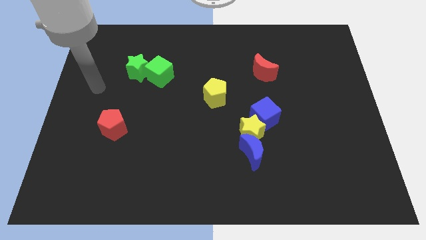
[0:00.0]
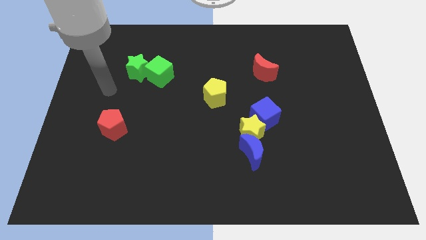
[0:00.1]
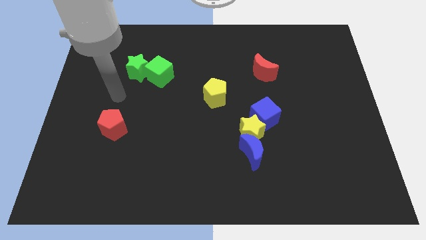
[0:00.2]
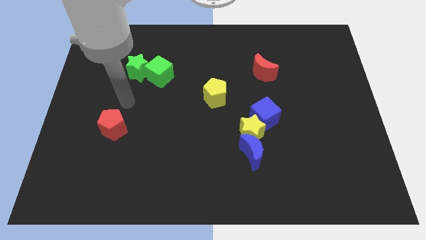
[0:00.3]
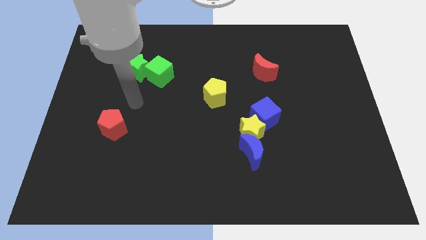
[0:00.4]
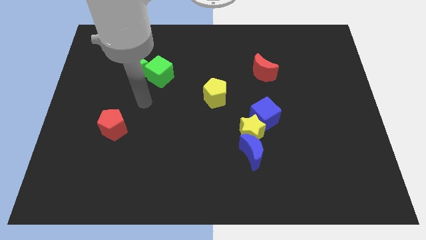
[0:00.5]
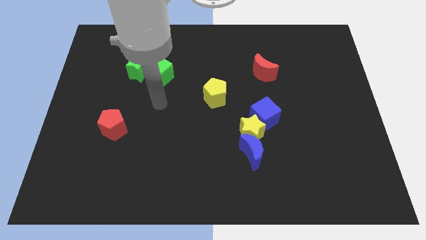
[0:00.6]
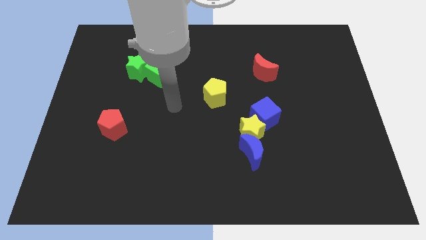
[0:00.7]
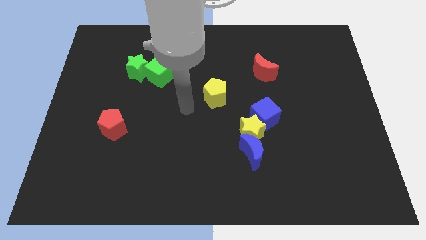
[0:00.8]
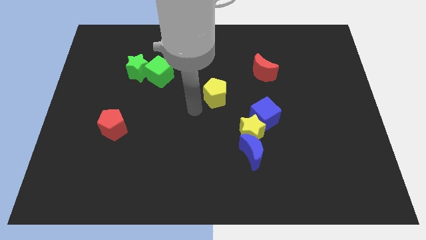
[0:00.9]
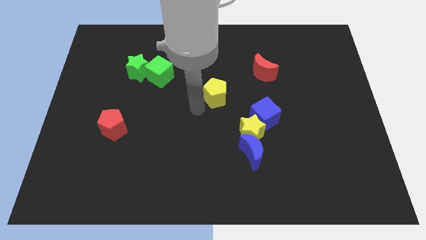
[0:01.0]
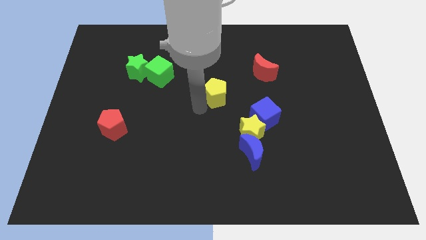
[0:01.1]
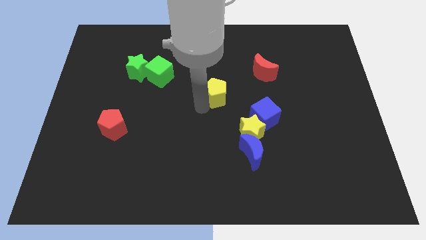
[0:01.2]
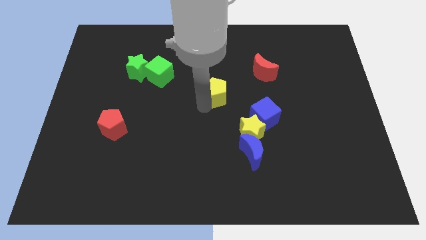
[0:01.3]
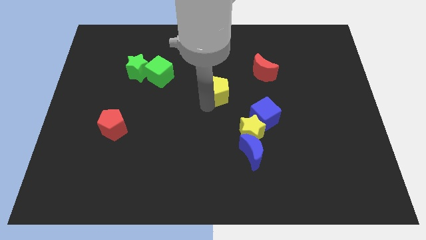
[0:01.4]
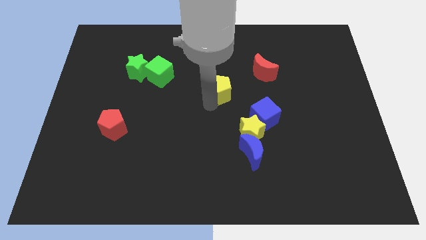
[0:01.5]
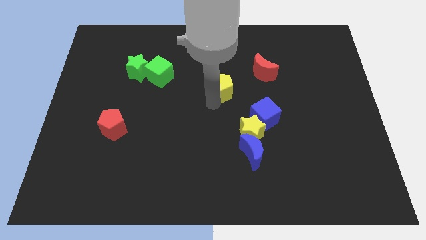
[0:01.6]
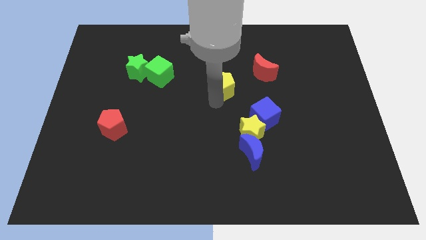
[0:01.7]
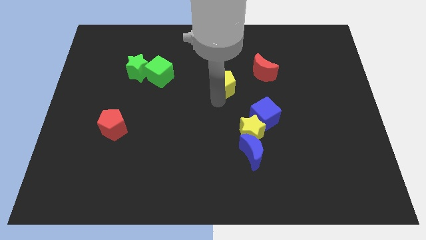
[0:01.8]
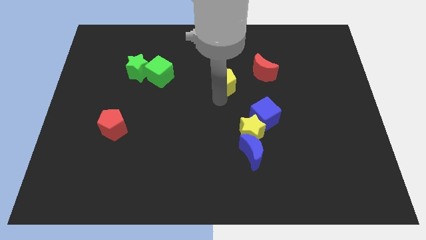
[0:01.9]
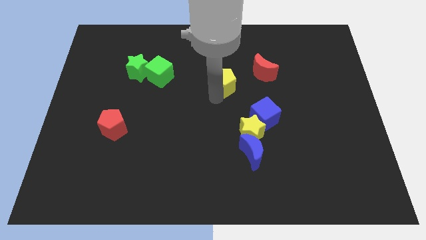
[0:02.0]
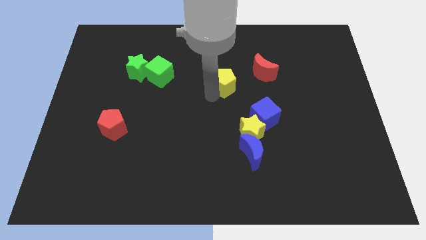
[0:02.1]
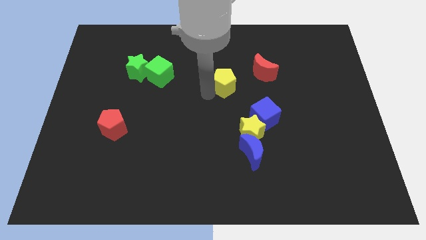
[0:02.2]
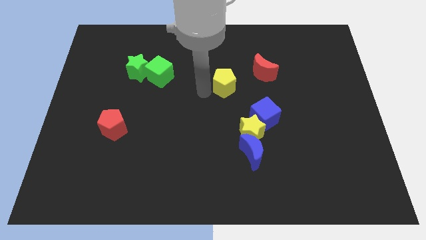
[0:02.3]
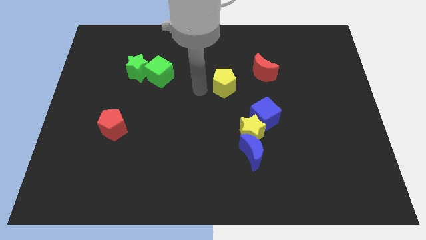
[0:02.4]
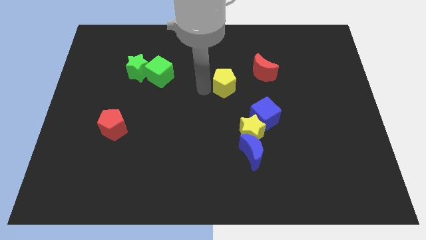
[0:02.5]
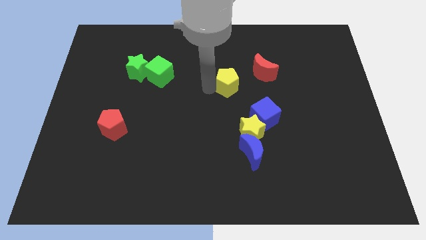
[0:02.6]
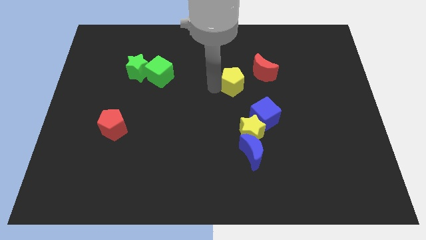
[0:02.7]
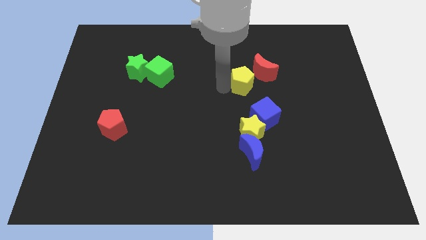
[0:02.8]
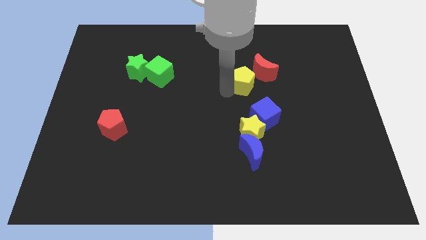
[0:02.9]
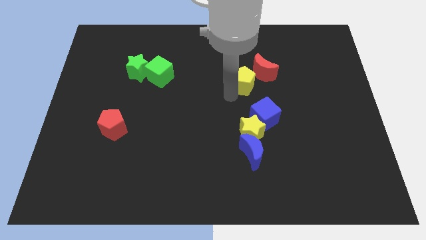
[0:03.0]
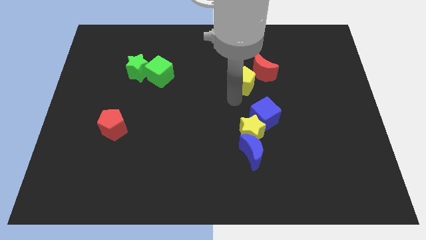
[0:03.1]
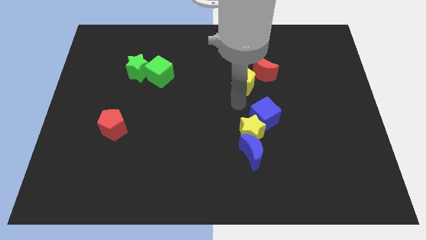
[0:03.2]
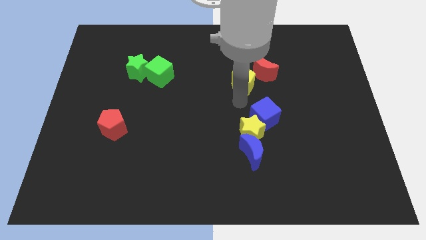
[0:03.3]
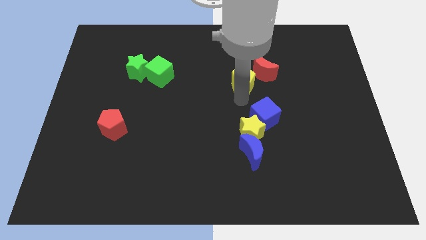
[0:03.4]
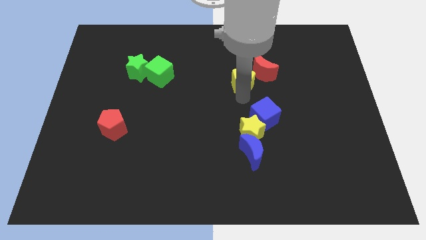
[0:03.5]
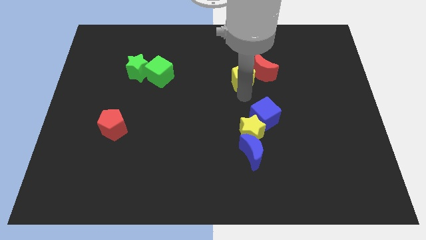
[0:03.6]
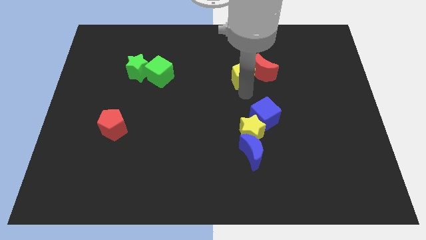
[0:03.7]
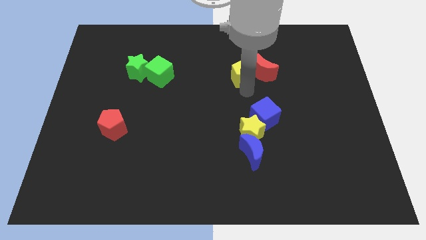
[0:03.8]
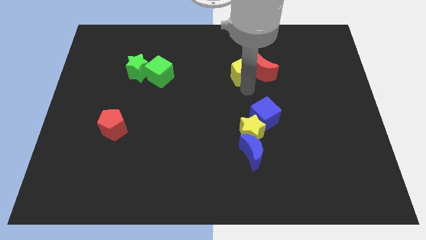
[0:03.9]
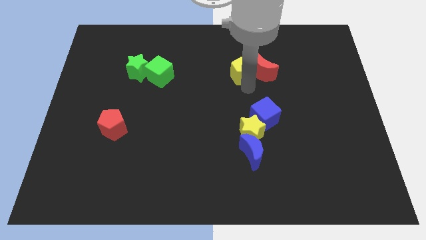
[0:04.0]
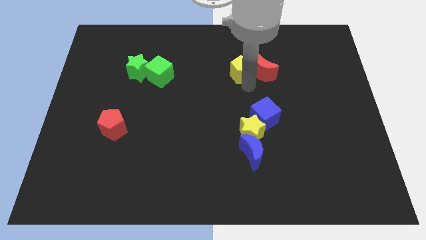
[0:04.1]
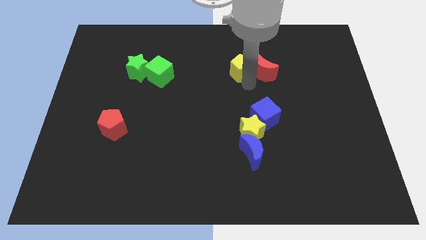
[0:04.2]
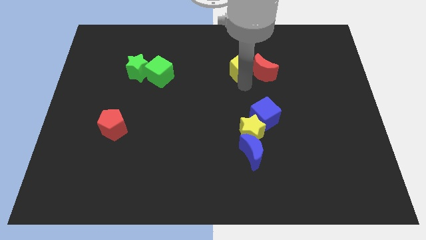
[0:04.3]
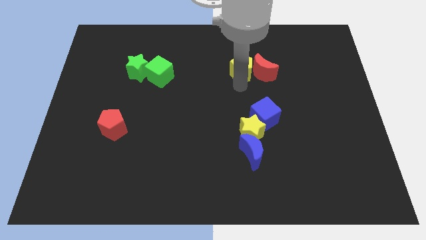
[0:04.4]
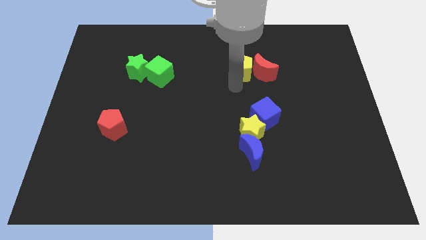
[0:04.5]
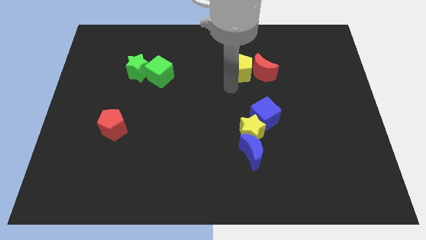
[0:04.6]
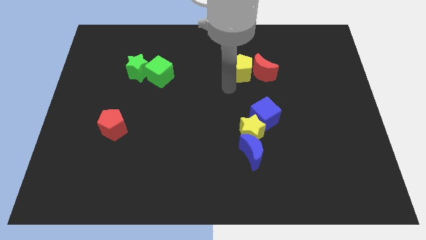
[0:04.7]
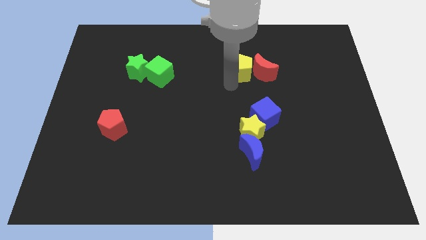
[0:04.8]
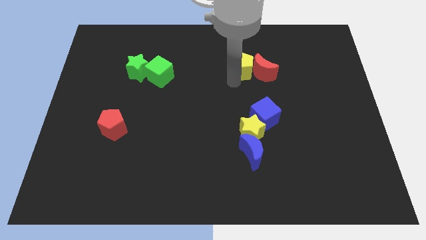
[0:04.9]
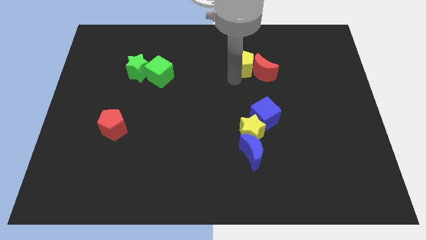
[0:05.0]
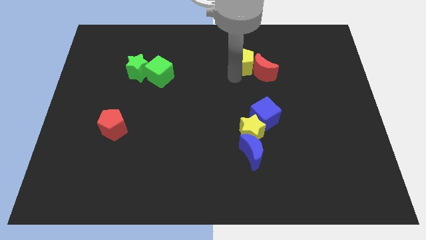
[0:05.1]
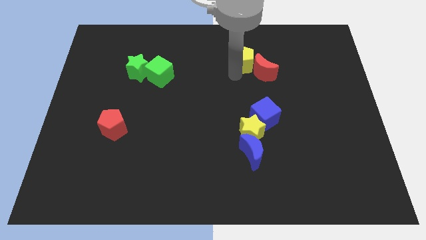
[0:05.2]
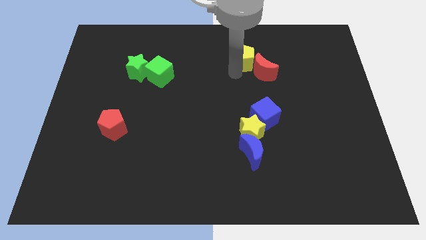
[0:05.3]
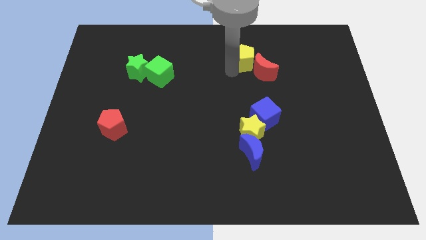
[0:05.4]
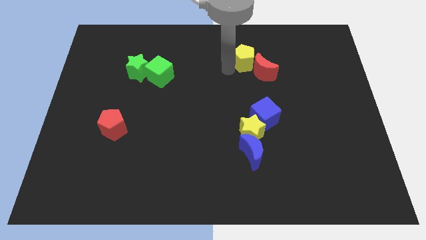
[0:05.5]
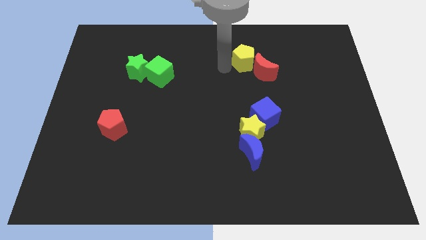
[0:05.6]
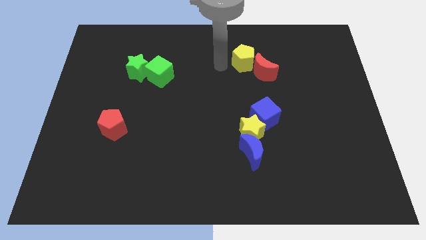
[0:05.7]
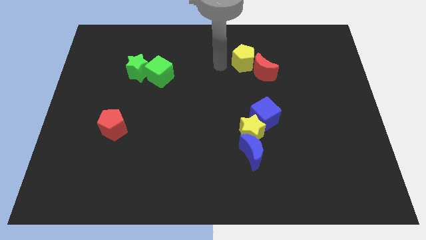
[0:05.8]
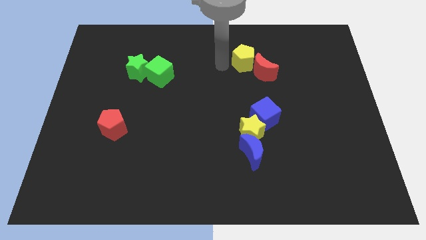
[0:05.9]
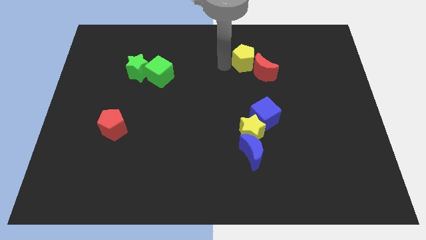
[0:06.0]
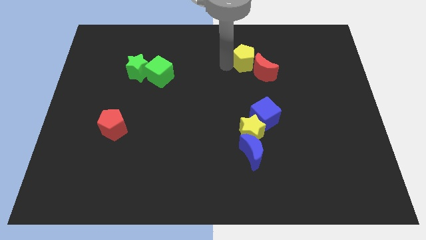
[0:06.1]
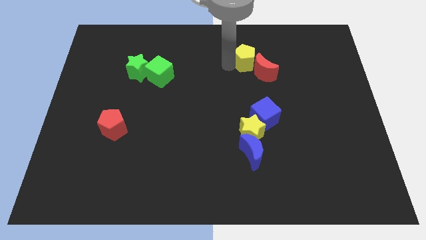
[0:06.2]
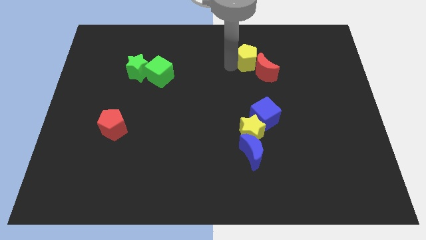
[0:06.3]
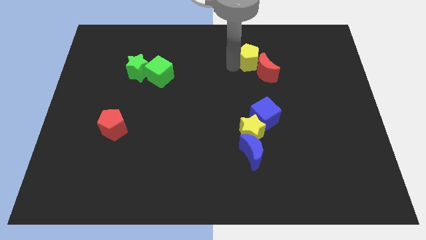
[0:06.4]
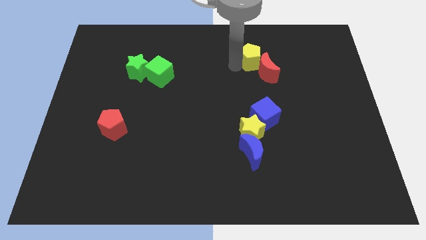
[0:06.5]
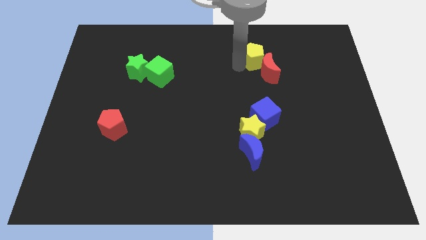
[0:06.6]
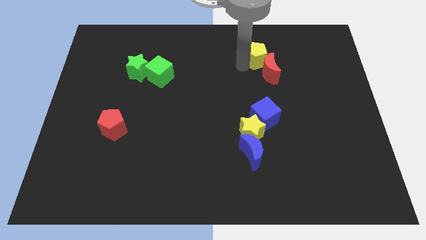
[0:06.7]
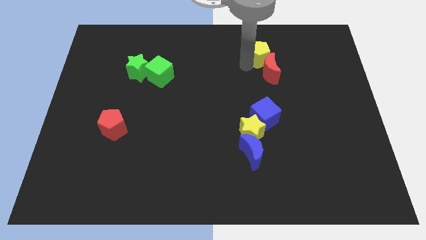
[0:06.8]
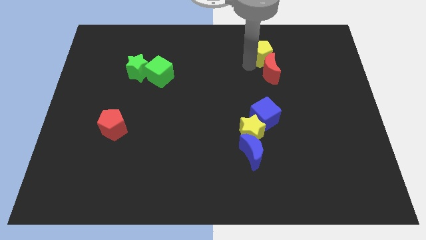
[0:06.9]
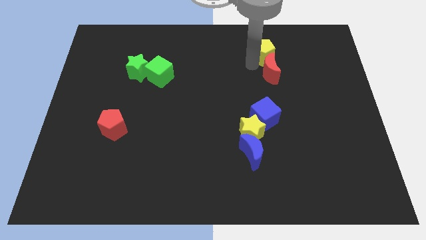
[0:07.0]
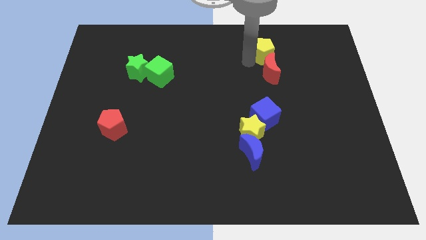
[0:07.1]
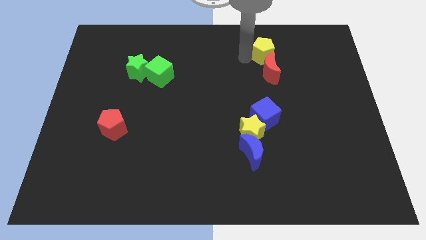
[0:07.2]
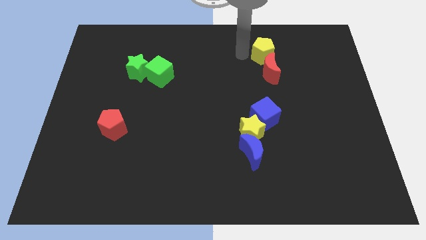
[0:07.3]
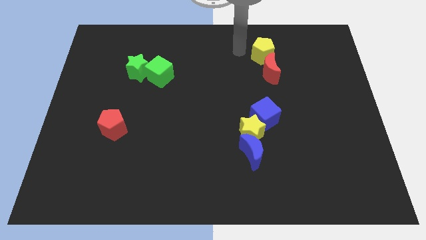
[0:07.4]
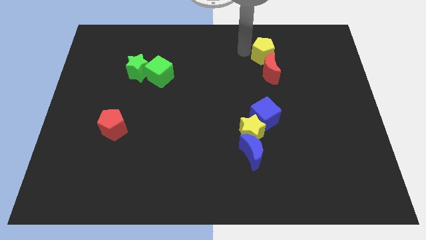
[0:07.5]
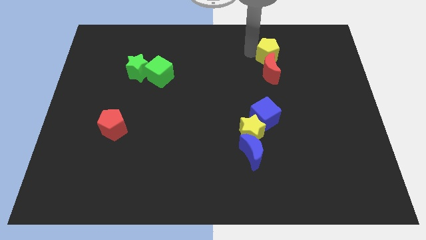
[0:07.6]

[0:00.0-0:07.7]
move the yellow pentagon to the top right side of the red moon

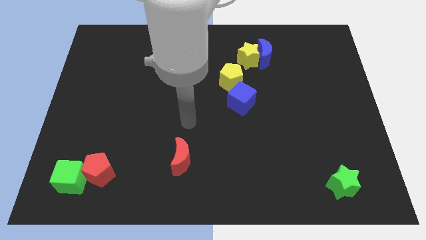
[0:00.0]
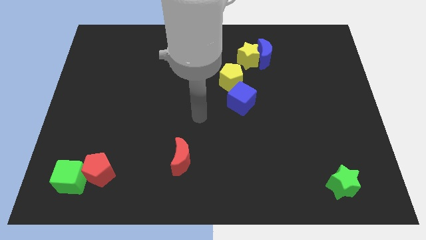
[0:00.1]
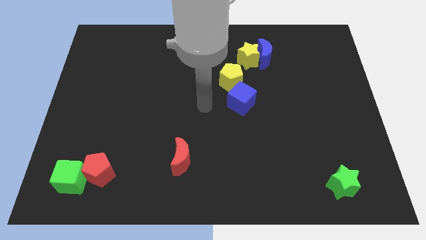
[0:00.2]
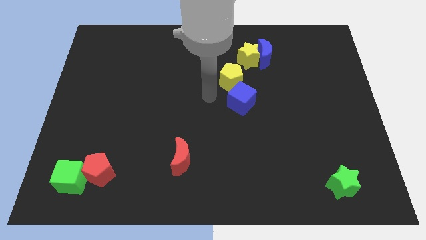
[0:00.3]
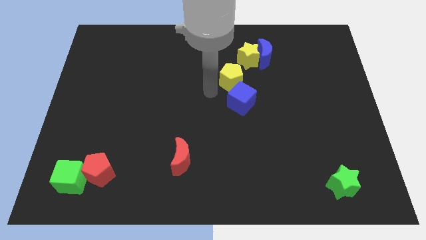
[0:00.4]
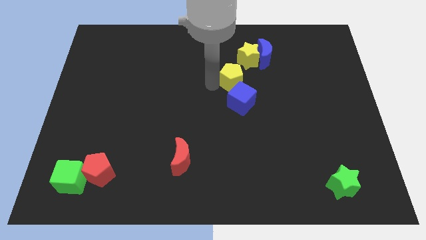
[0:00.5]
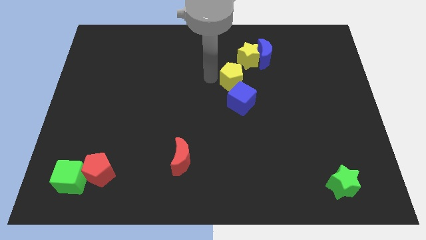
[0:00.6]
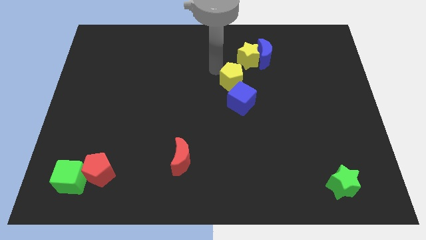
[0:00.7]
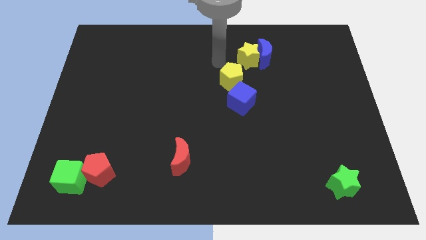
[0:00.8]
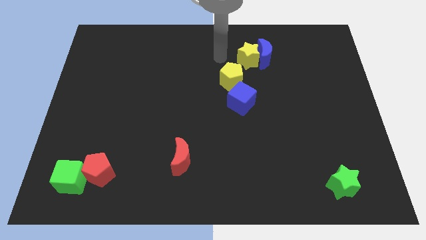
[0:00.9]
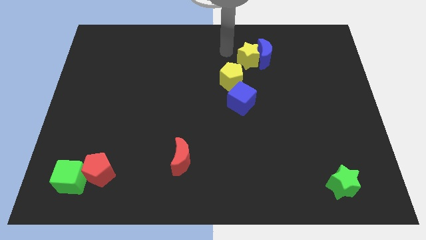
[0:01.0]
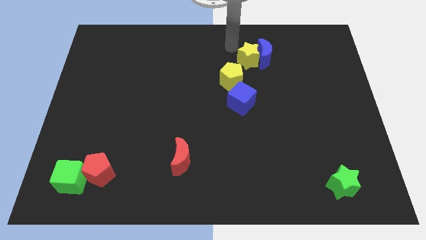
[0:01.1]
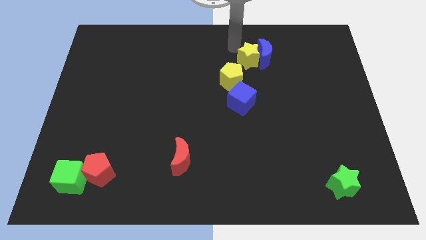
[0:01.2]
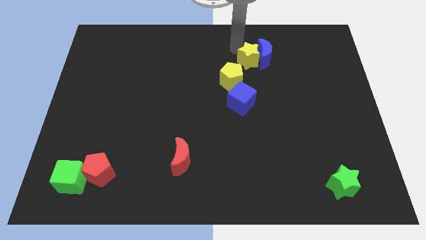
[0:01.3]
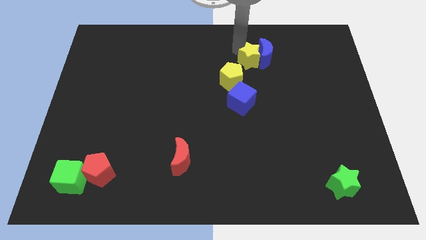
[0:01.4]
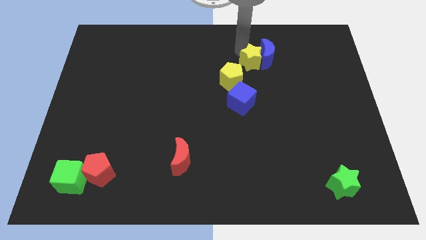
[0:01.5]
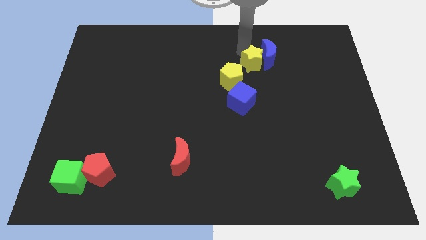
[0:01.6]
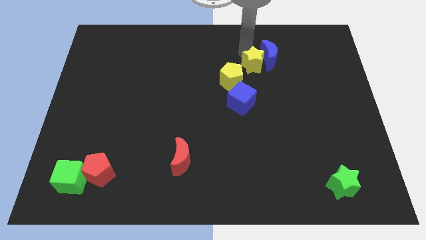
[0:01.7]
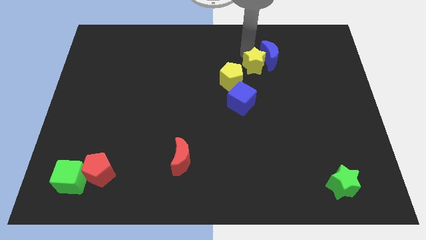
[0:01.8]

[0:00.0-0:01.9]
slide the yellow star right of the yellow pentagon
